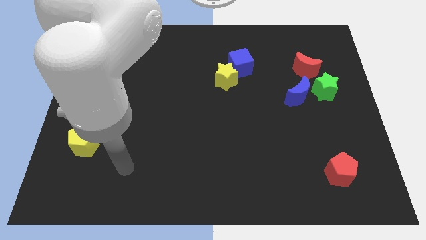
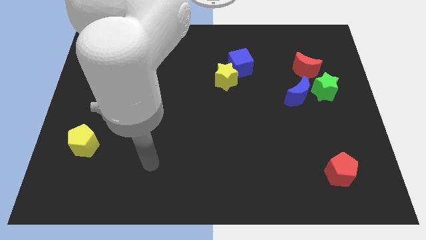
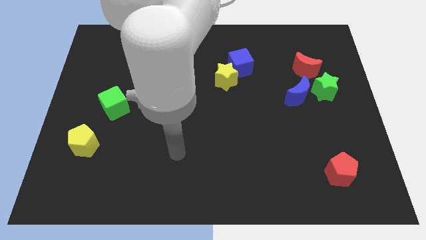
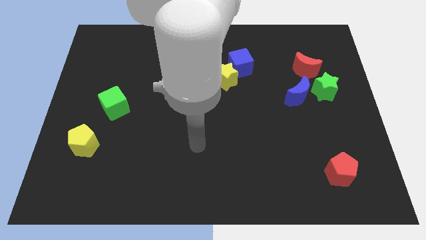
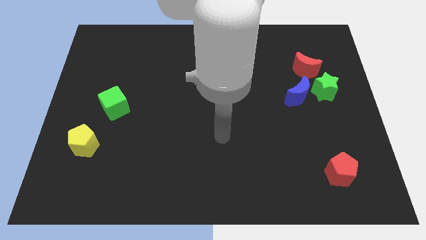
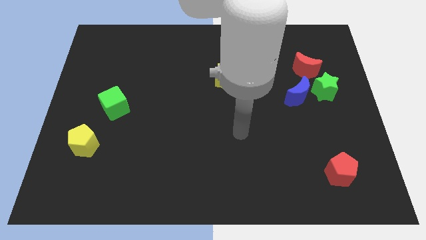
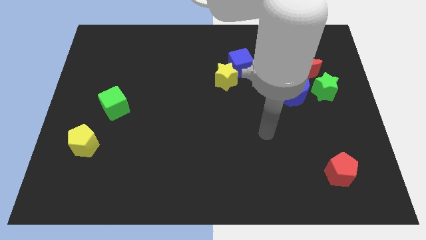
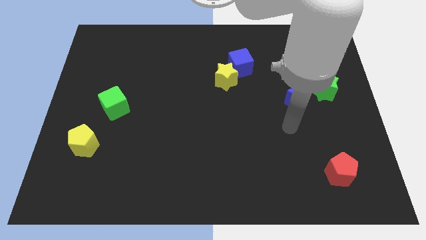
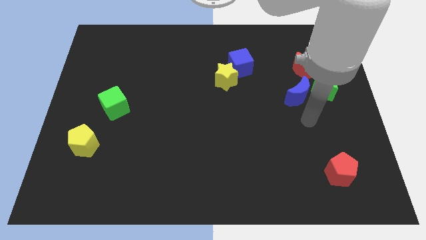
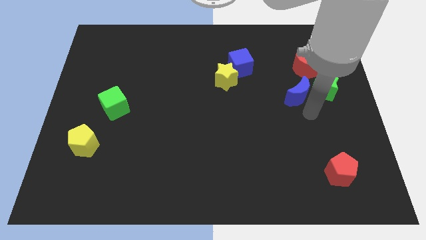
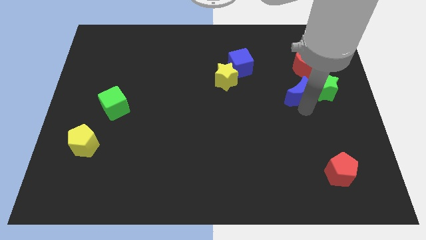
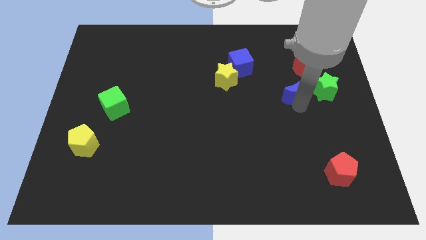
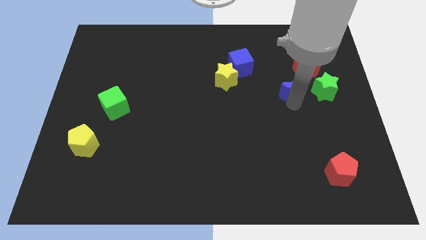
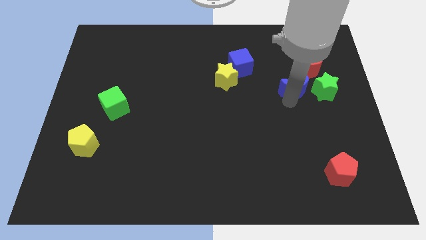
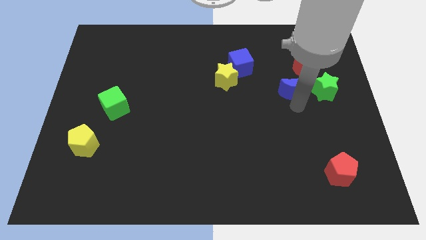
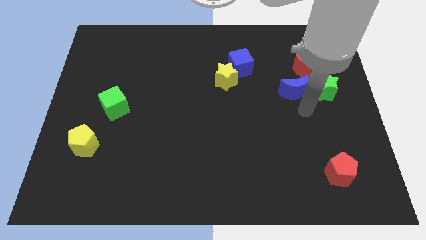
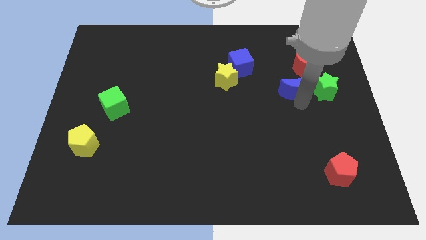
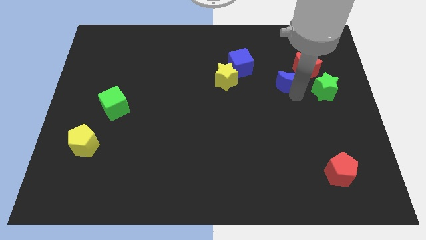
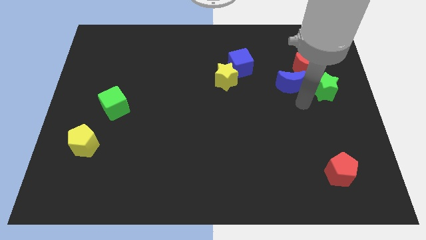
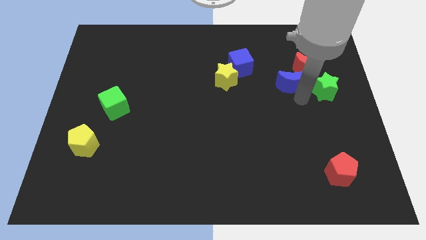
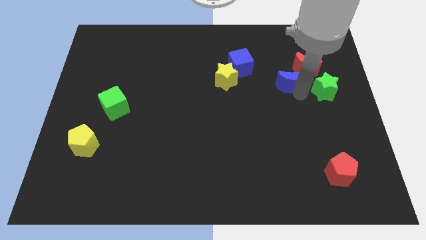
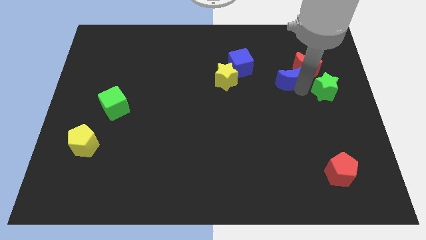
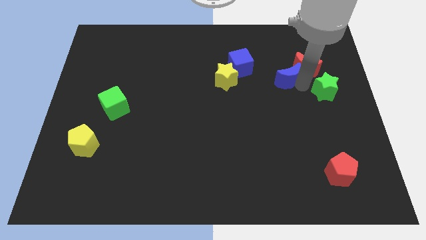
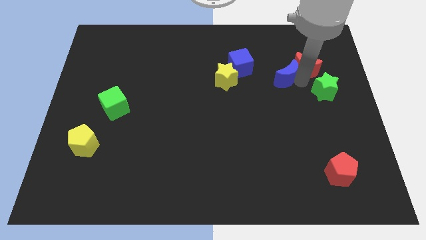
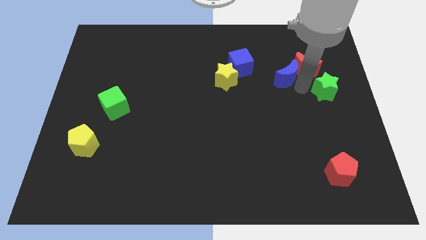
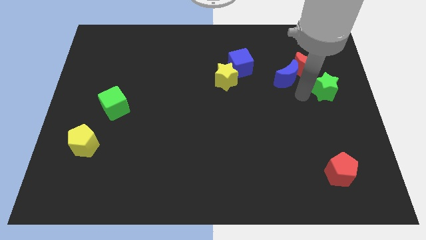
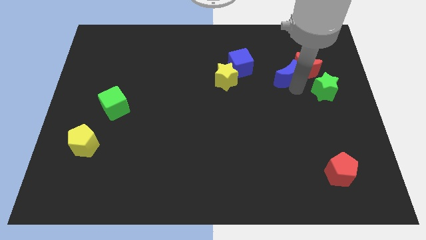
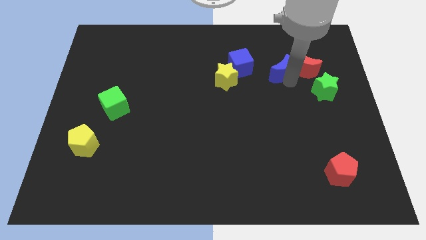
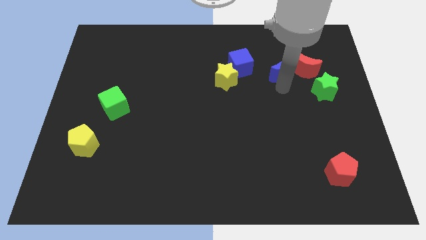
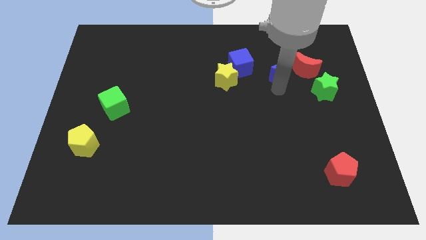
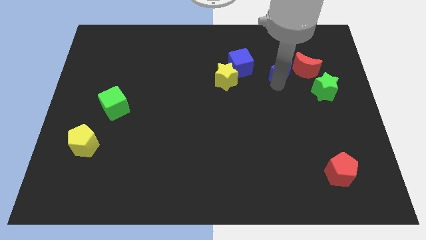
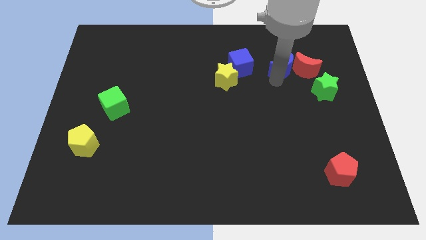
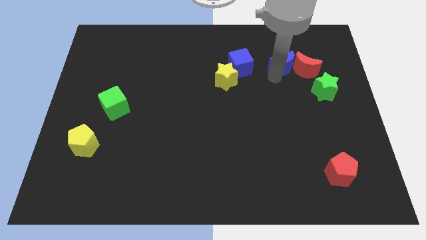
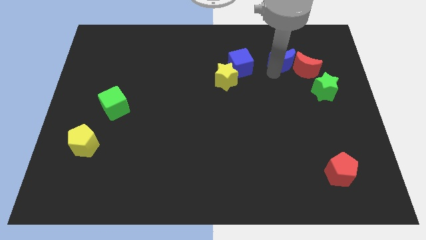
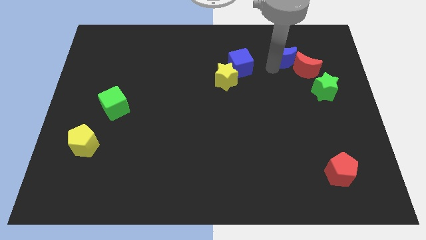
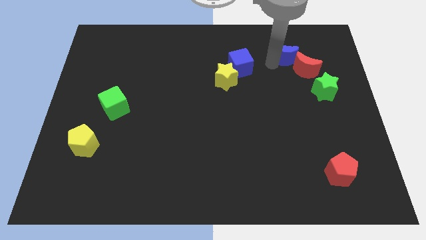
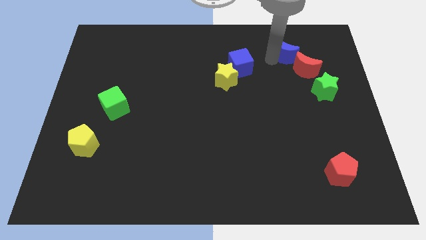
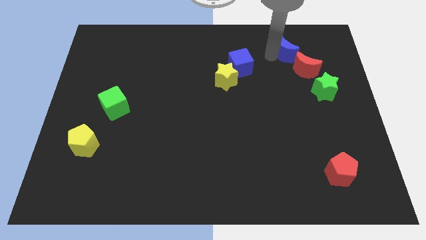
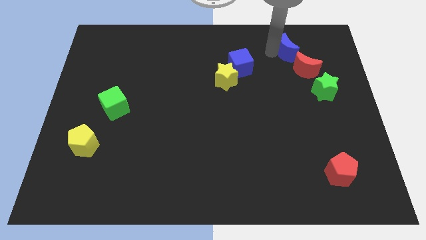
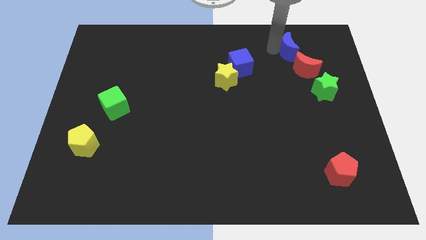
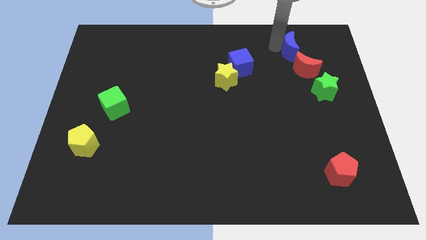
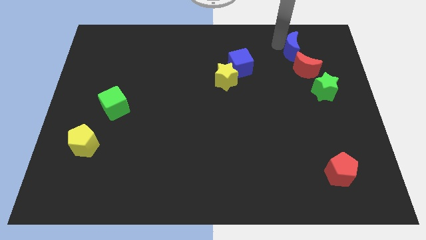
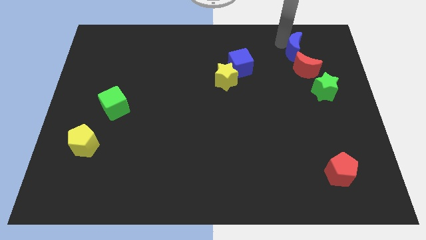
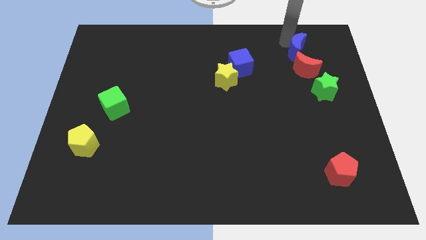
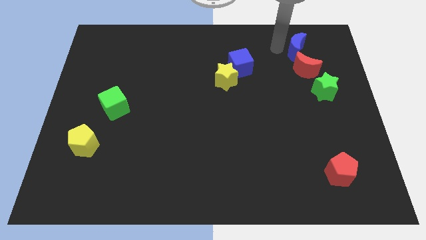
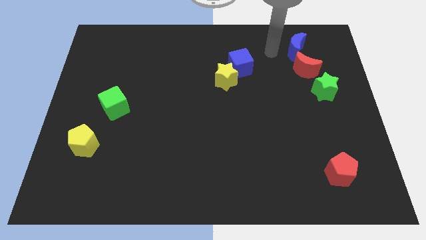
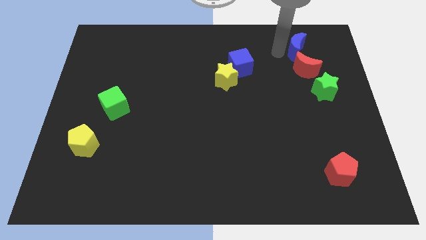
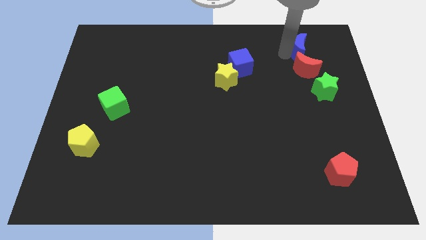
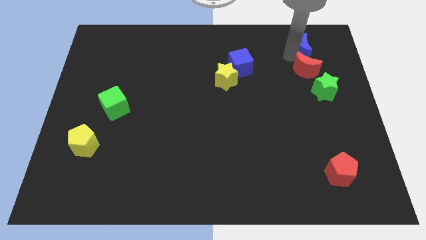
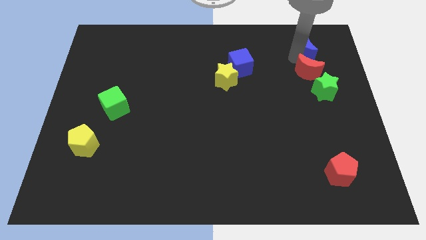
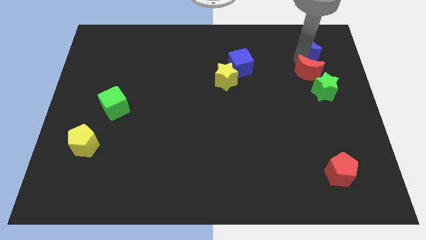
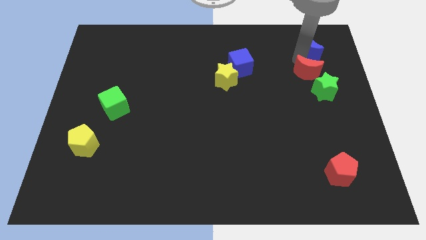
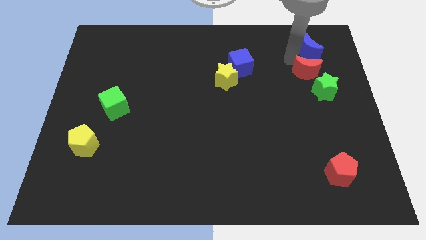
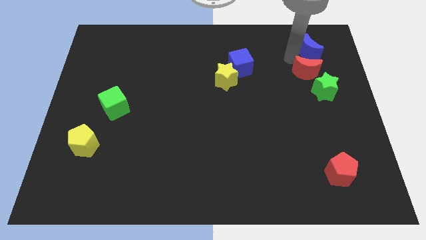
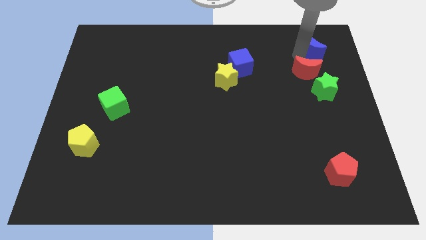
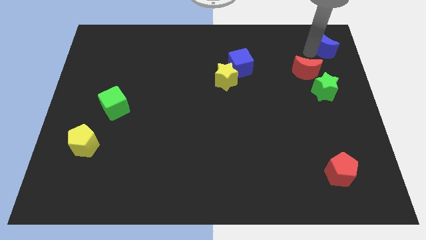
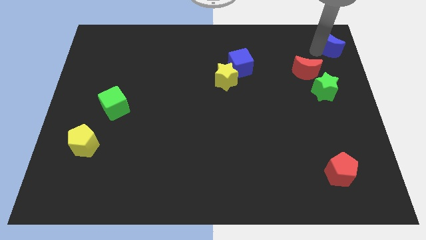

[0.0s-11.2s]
move the blue moon to the upper right corner
